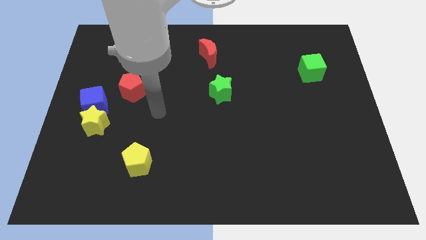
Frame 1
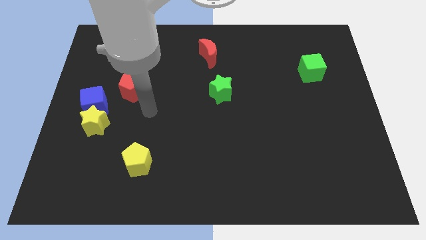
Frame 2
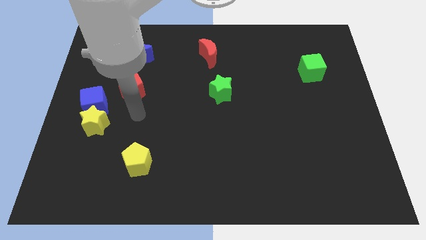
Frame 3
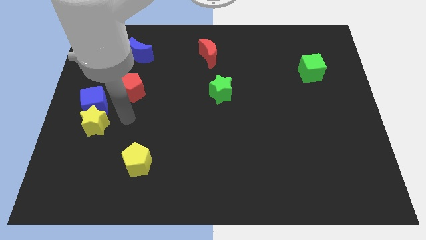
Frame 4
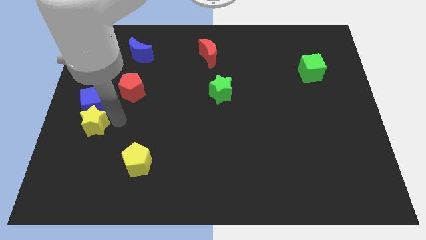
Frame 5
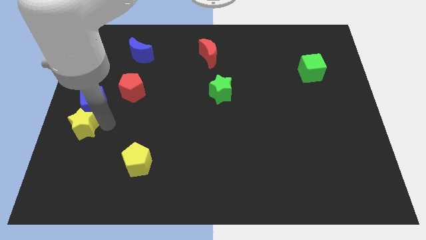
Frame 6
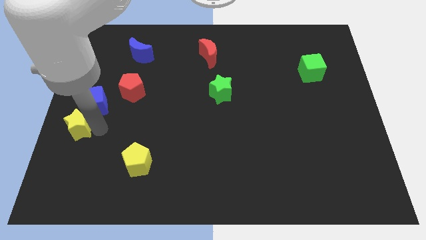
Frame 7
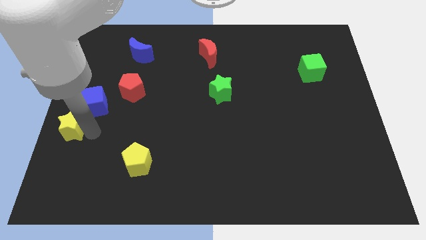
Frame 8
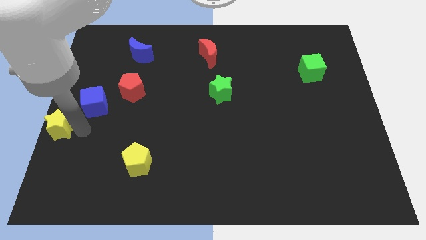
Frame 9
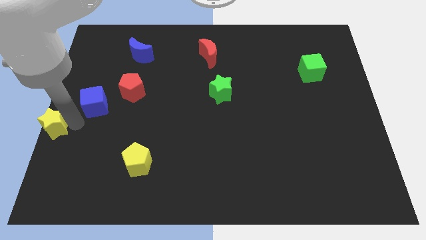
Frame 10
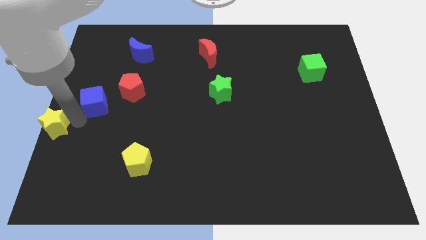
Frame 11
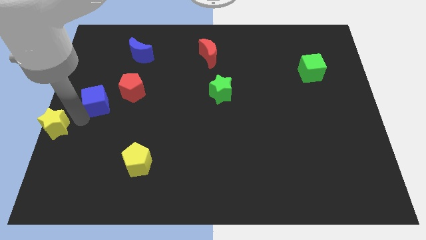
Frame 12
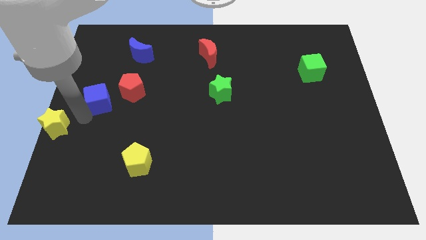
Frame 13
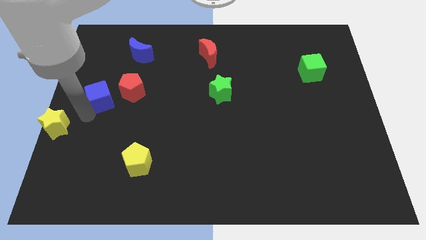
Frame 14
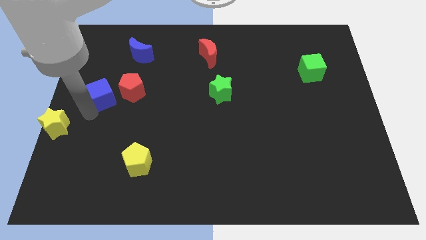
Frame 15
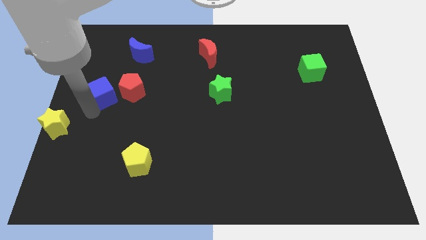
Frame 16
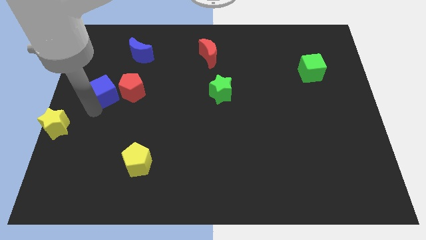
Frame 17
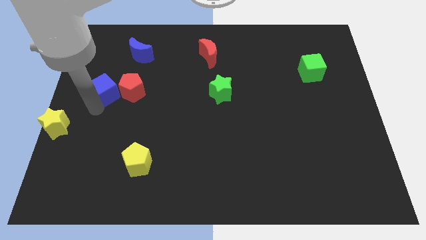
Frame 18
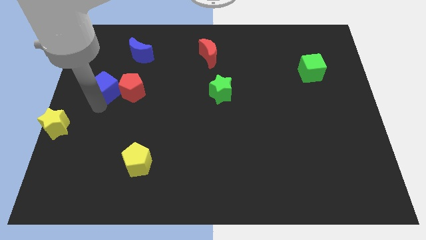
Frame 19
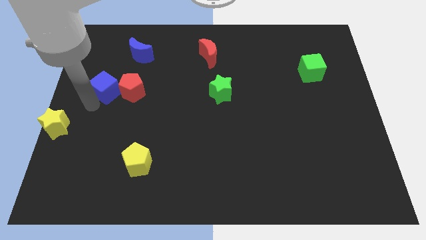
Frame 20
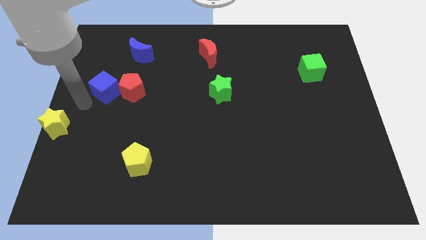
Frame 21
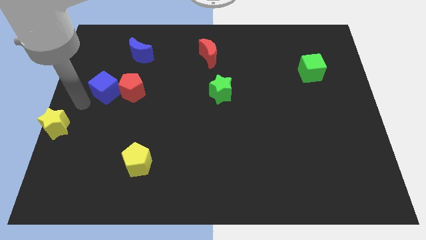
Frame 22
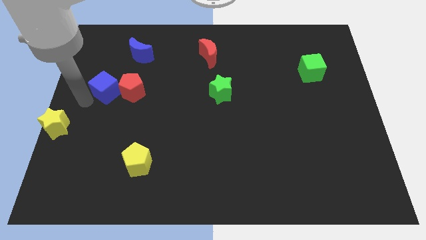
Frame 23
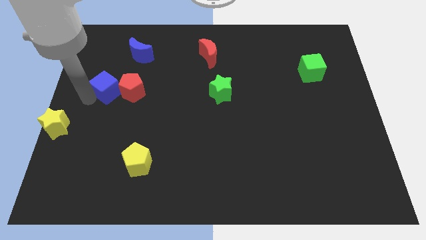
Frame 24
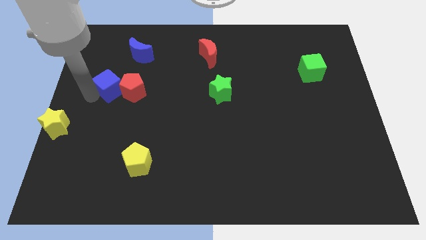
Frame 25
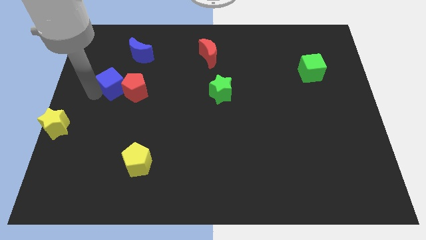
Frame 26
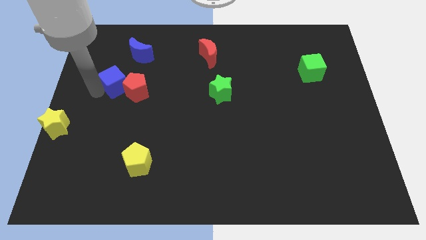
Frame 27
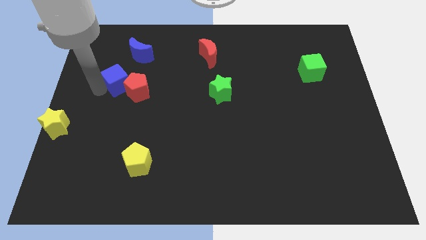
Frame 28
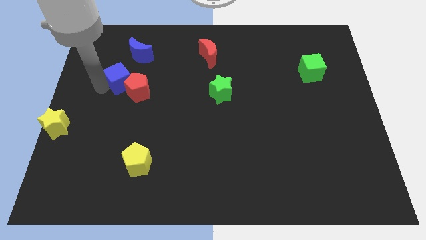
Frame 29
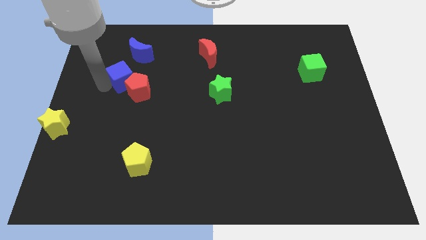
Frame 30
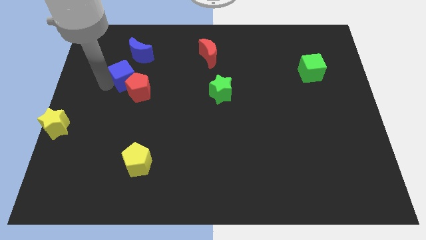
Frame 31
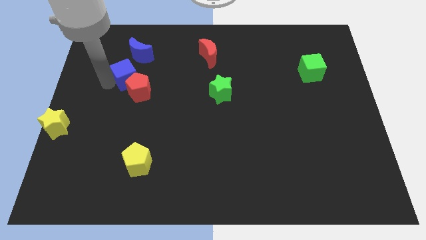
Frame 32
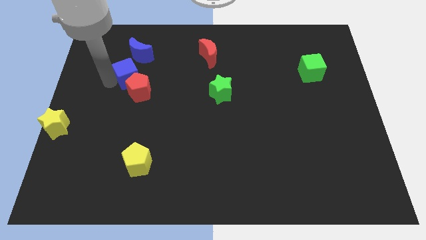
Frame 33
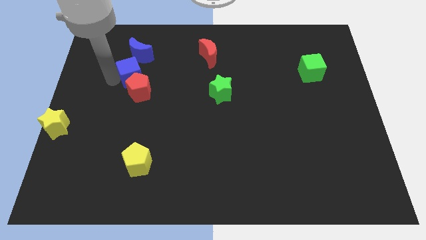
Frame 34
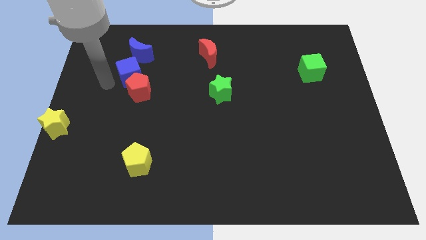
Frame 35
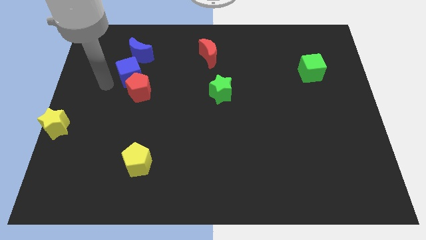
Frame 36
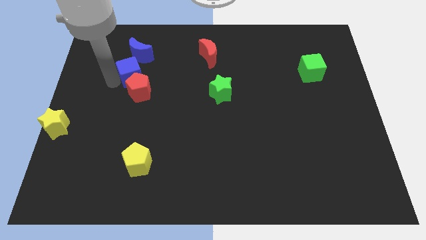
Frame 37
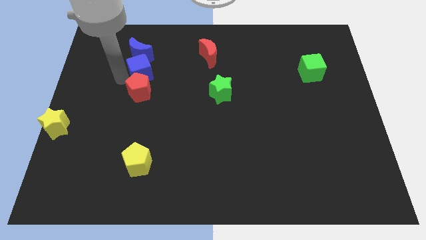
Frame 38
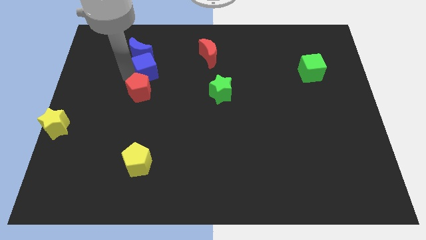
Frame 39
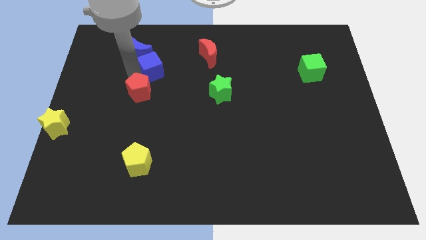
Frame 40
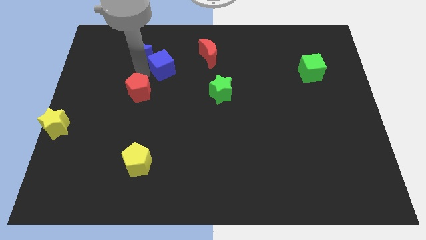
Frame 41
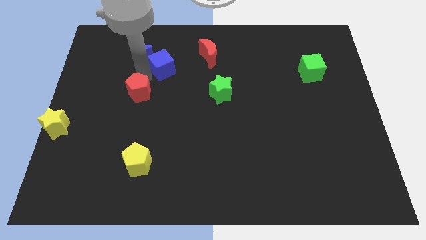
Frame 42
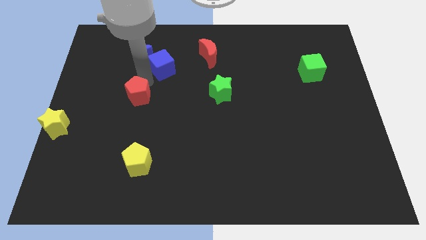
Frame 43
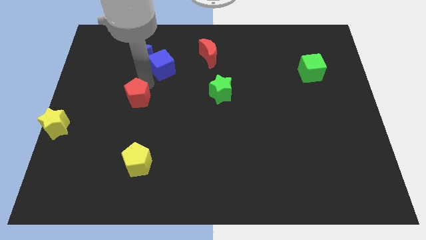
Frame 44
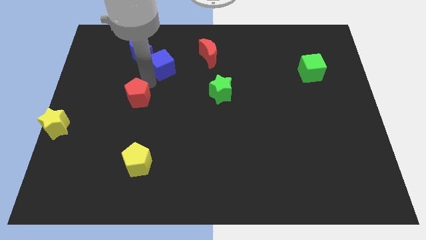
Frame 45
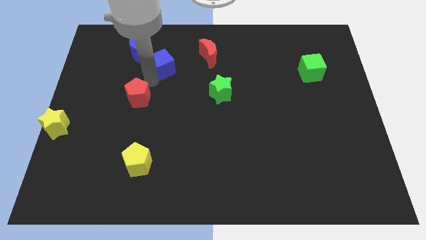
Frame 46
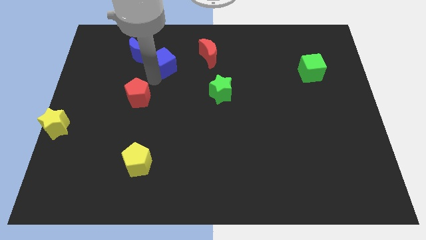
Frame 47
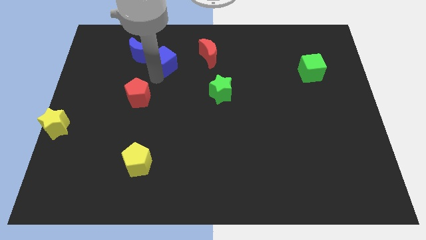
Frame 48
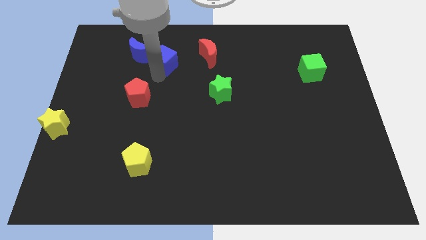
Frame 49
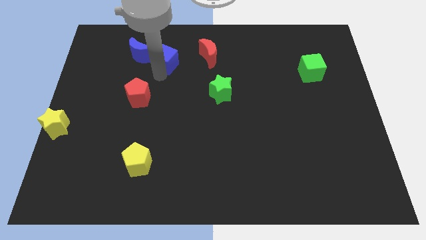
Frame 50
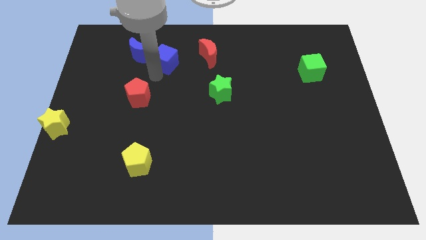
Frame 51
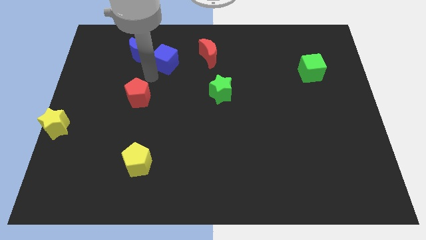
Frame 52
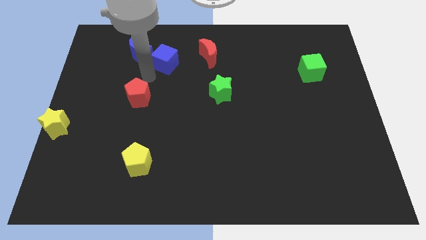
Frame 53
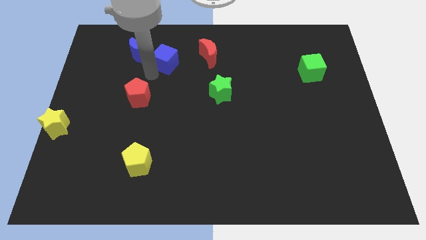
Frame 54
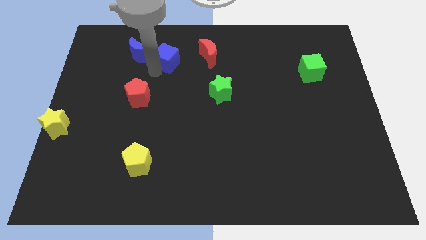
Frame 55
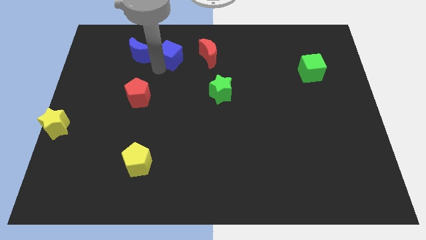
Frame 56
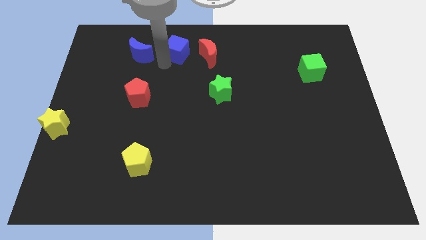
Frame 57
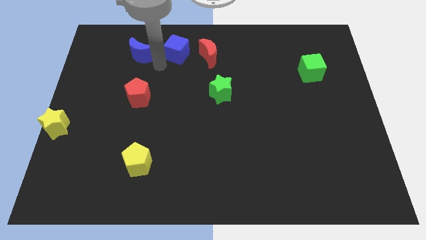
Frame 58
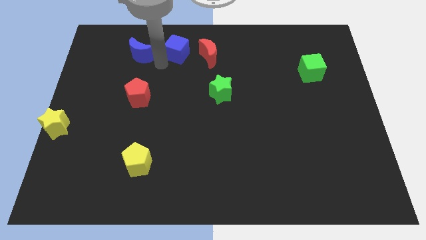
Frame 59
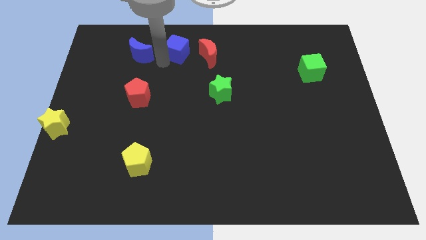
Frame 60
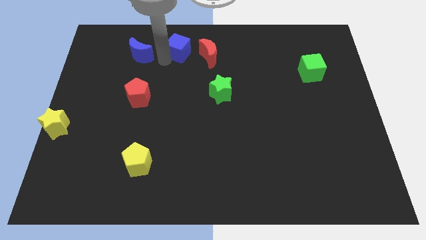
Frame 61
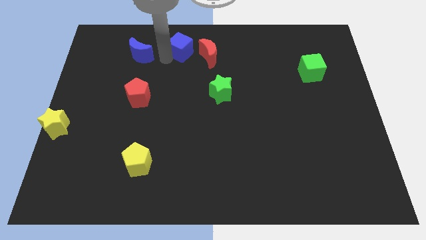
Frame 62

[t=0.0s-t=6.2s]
push the blue cube to the top
